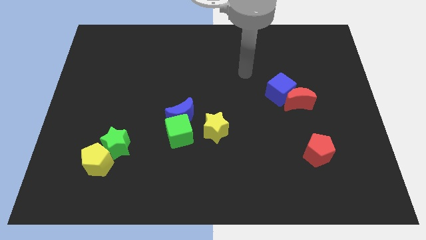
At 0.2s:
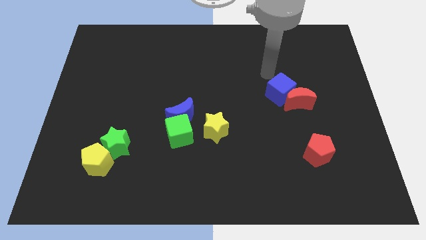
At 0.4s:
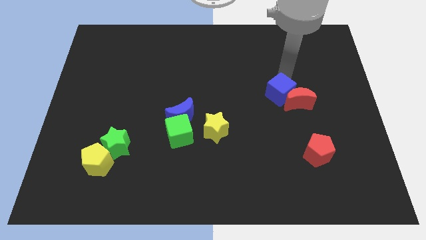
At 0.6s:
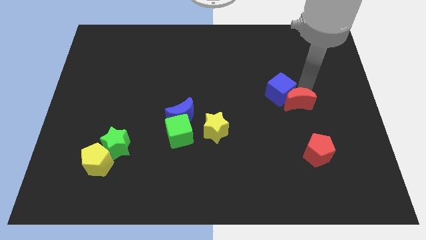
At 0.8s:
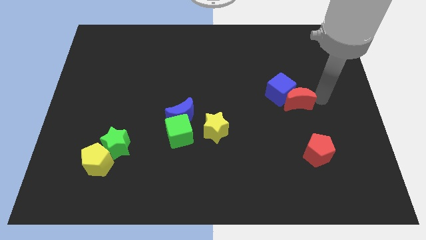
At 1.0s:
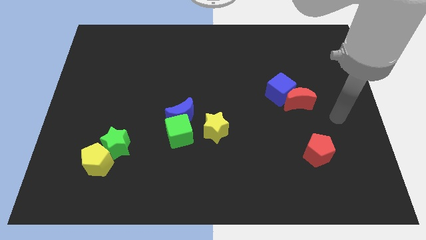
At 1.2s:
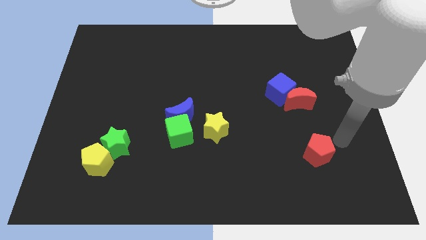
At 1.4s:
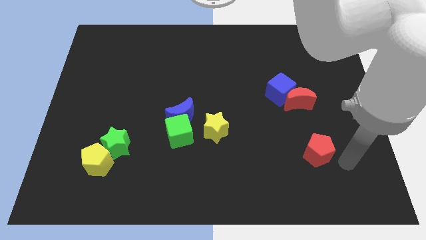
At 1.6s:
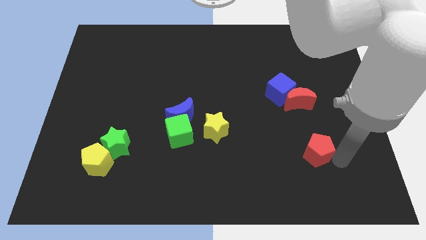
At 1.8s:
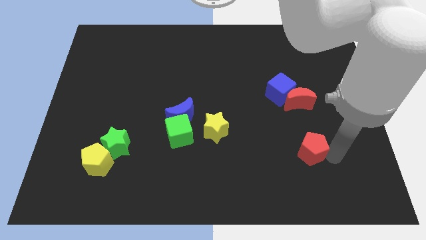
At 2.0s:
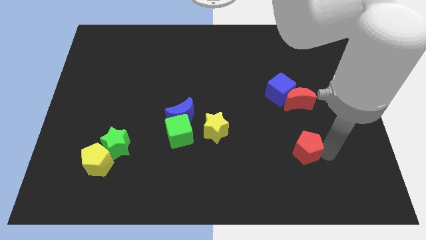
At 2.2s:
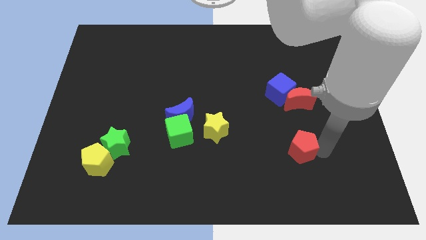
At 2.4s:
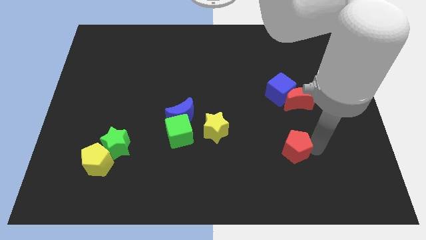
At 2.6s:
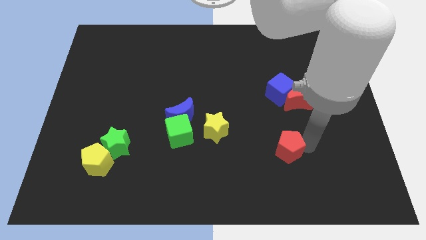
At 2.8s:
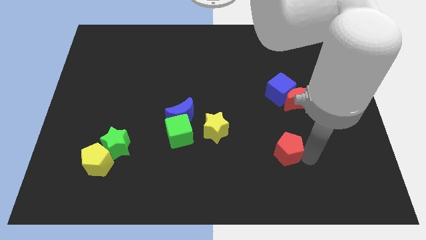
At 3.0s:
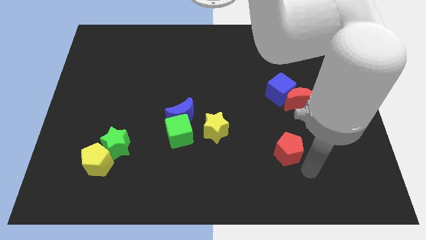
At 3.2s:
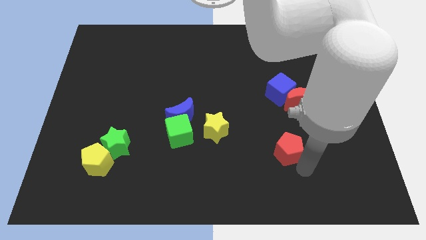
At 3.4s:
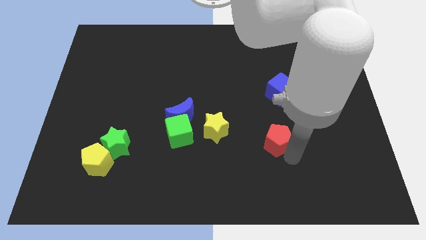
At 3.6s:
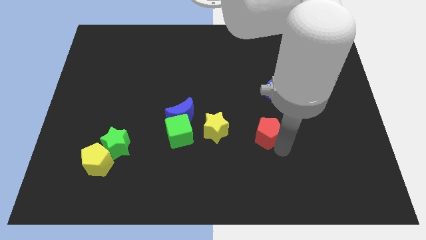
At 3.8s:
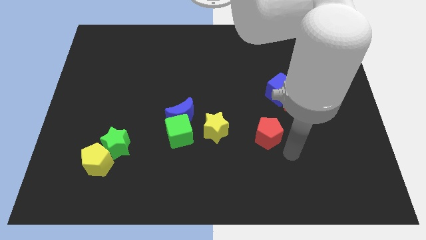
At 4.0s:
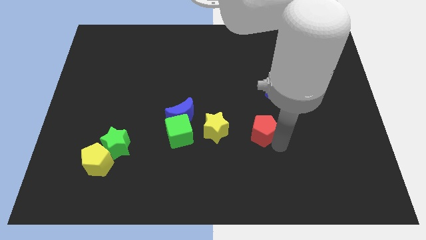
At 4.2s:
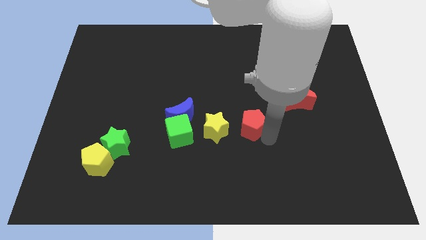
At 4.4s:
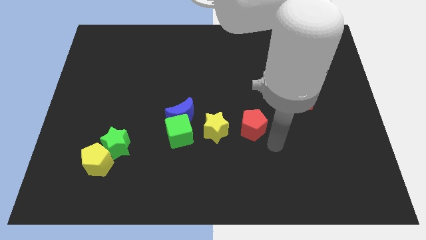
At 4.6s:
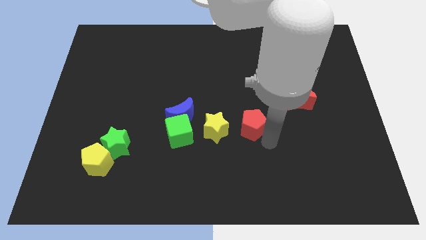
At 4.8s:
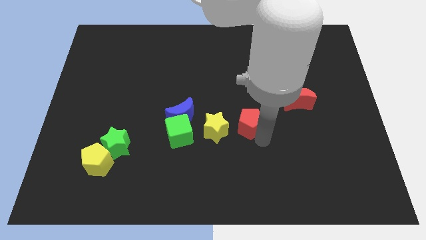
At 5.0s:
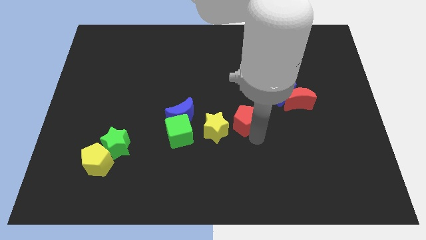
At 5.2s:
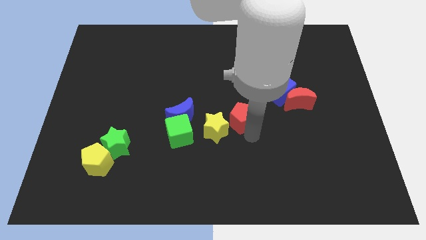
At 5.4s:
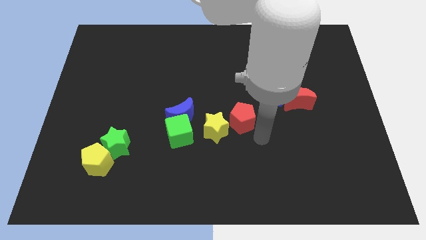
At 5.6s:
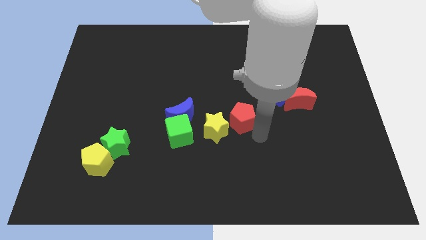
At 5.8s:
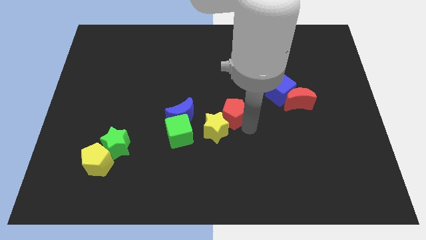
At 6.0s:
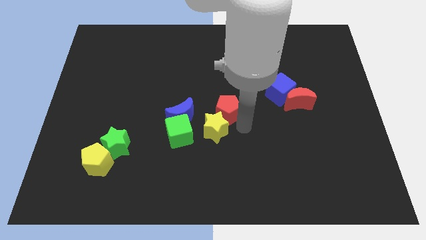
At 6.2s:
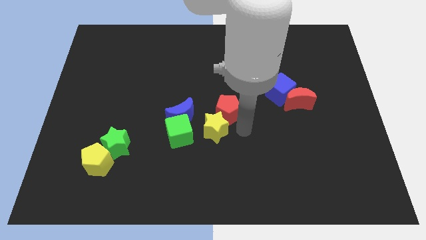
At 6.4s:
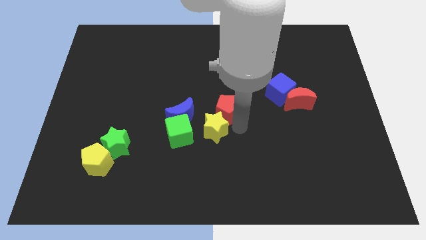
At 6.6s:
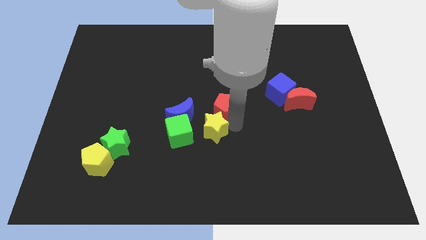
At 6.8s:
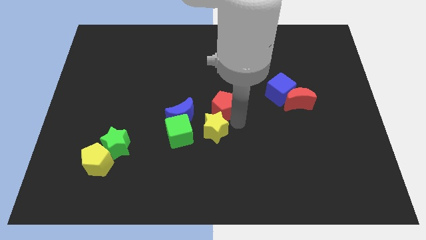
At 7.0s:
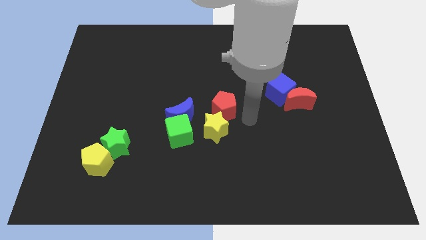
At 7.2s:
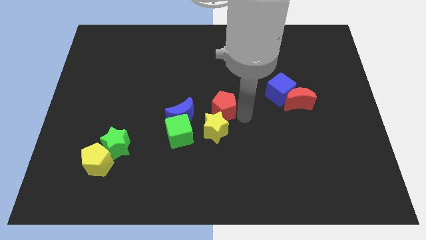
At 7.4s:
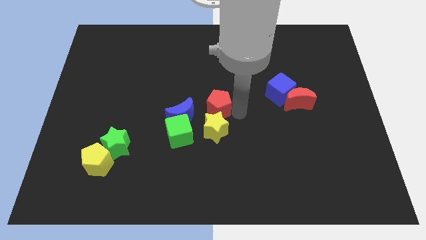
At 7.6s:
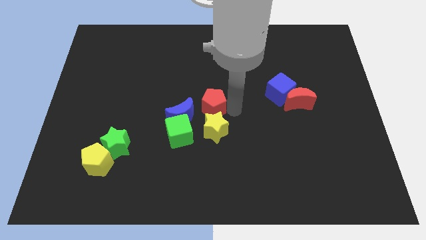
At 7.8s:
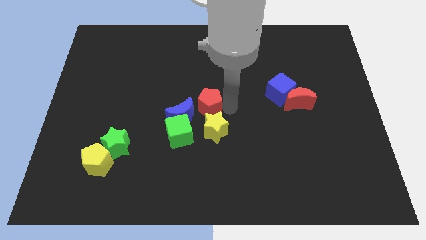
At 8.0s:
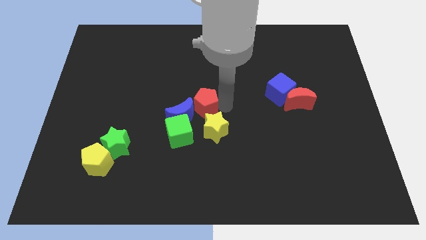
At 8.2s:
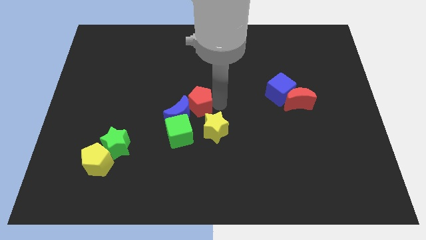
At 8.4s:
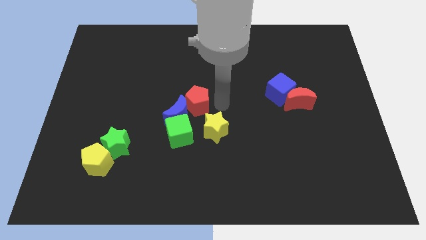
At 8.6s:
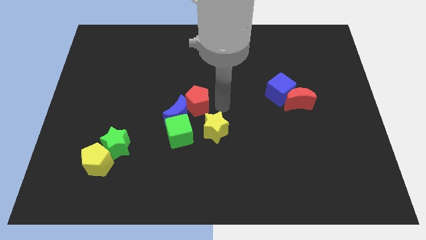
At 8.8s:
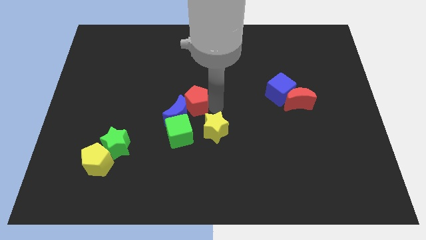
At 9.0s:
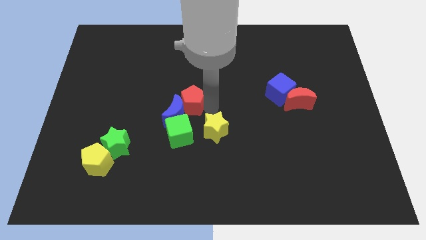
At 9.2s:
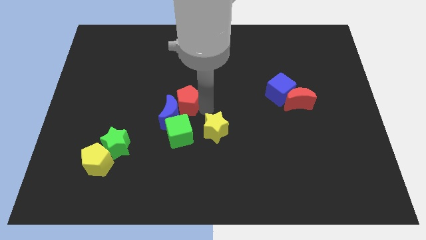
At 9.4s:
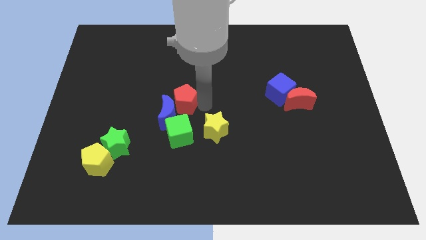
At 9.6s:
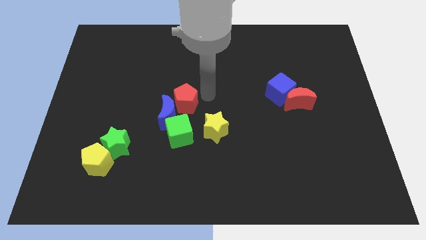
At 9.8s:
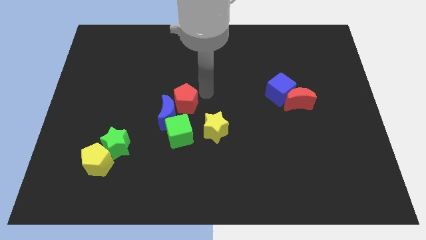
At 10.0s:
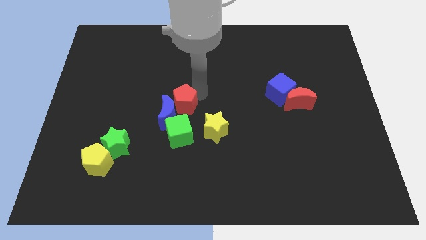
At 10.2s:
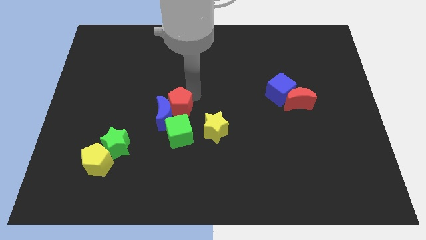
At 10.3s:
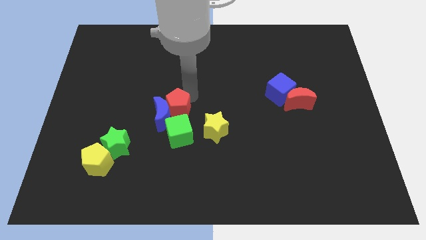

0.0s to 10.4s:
put the red pentagon to the top left of the green cube

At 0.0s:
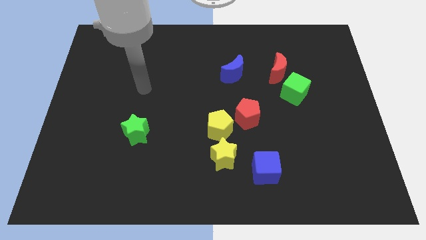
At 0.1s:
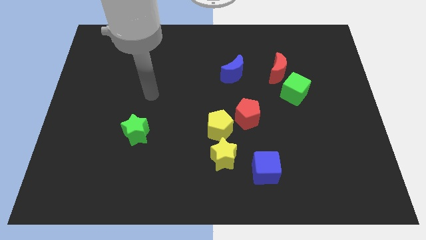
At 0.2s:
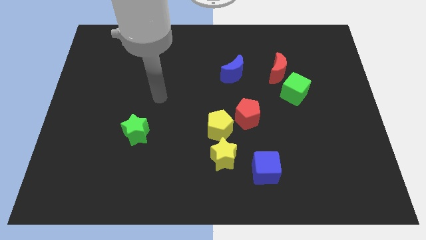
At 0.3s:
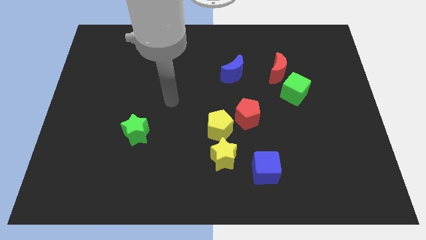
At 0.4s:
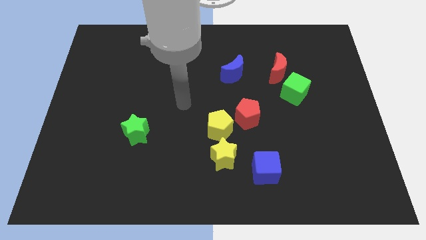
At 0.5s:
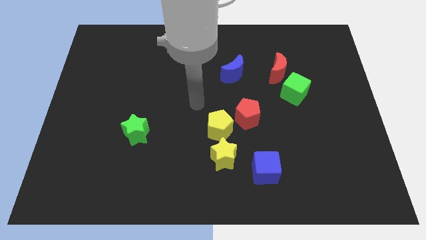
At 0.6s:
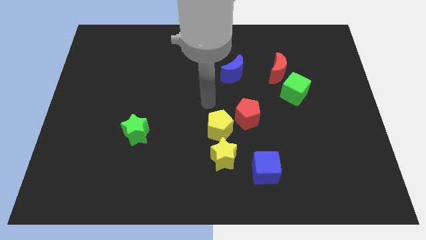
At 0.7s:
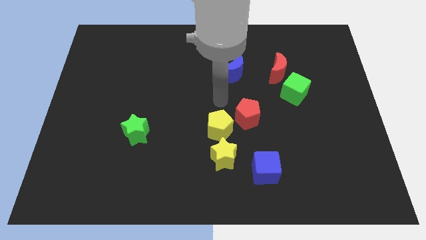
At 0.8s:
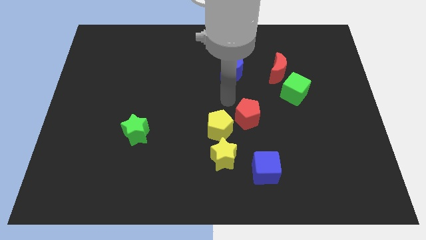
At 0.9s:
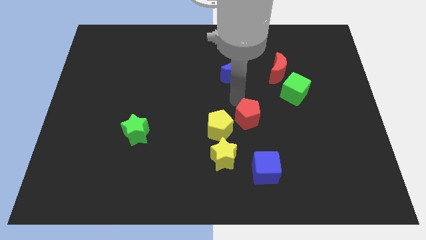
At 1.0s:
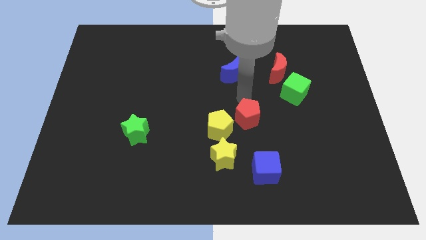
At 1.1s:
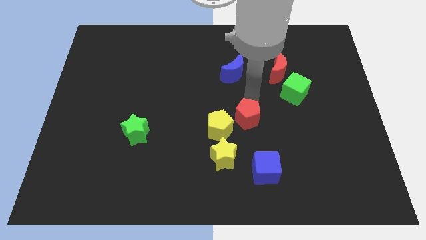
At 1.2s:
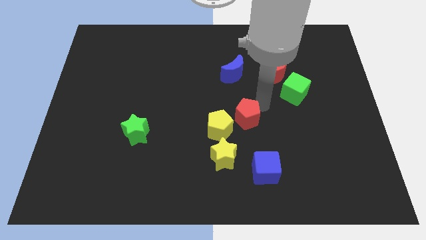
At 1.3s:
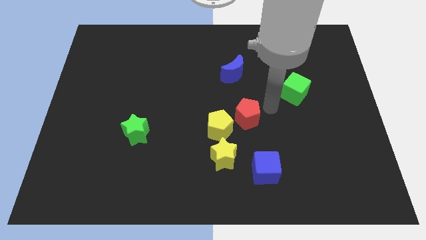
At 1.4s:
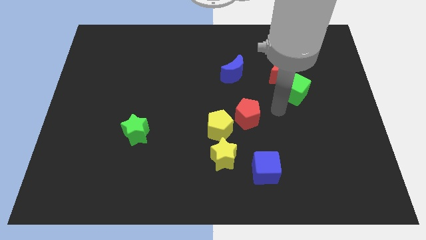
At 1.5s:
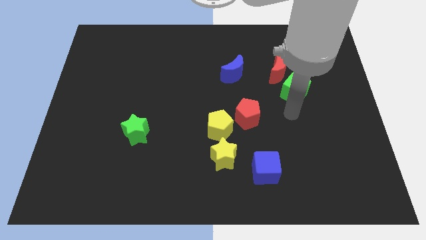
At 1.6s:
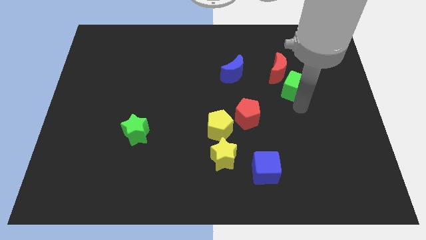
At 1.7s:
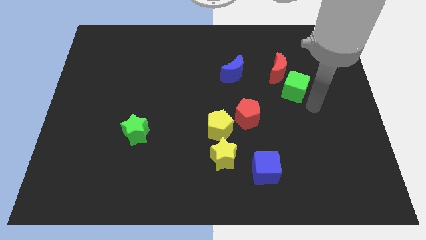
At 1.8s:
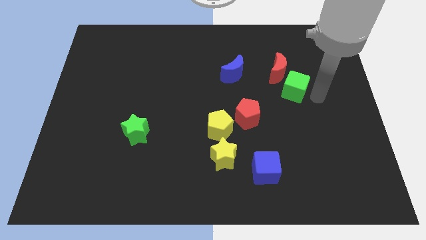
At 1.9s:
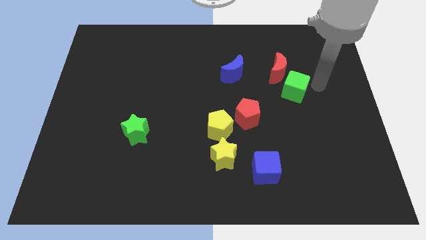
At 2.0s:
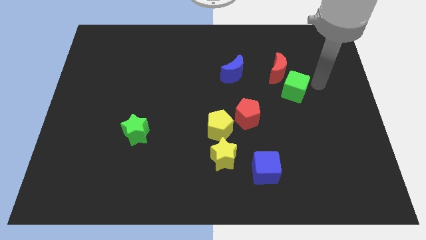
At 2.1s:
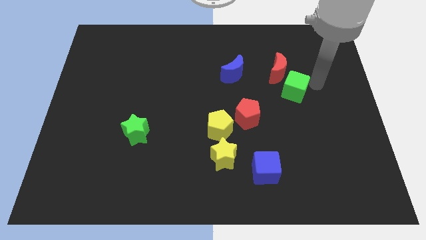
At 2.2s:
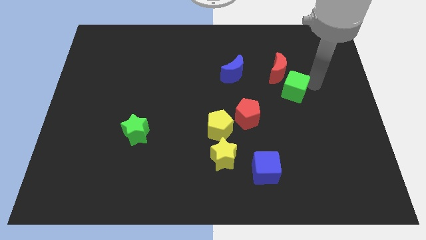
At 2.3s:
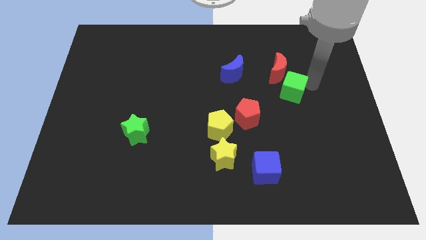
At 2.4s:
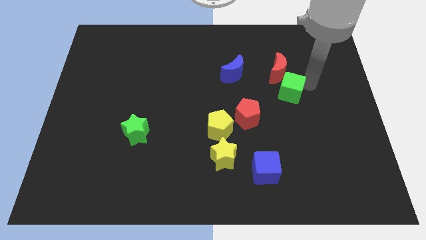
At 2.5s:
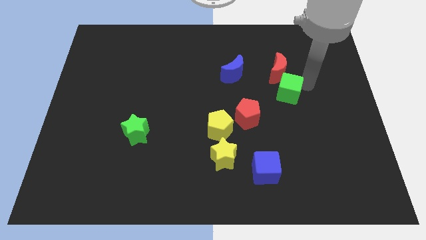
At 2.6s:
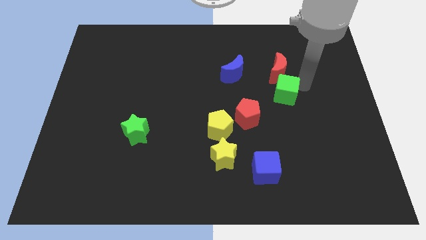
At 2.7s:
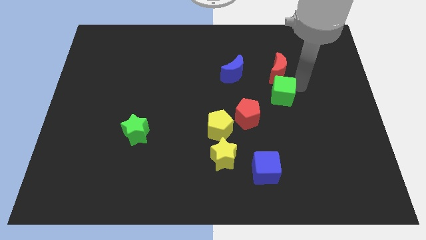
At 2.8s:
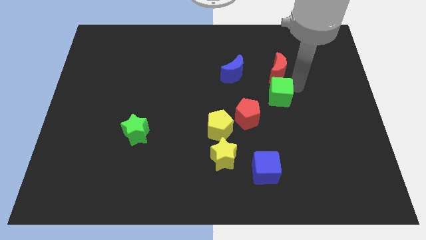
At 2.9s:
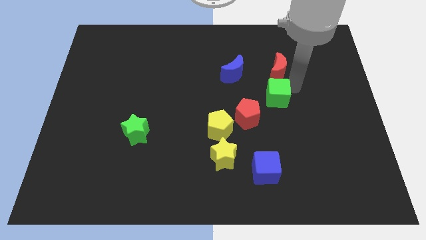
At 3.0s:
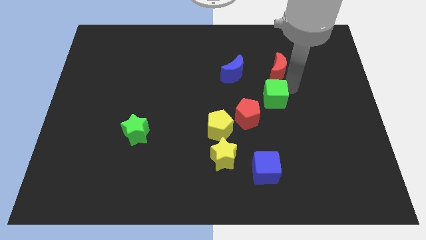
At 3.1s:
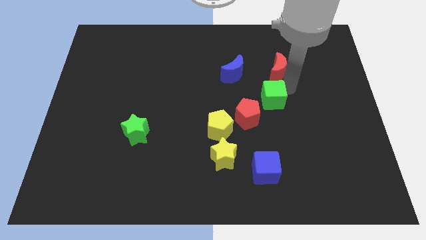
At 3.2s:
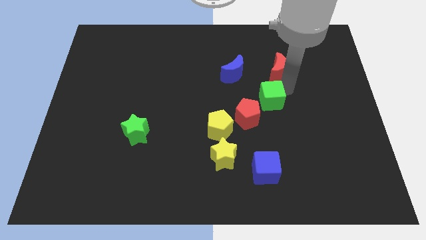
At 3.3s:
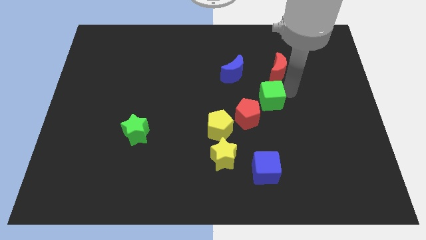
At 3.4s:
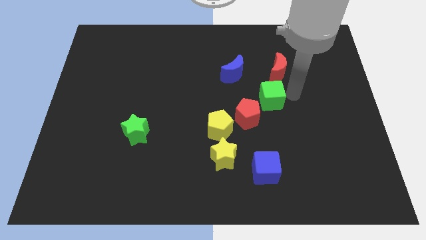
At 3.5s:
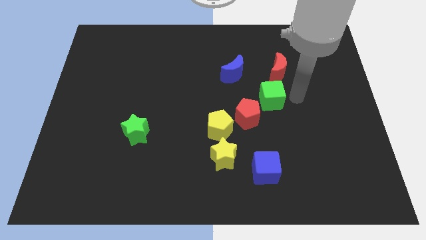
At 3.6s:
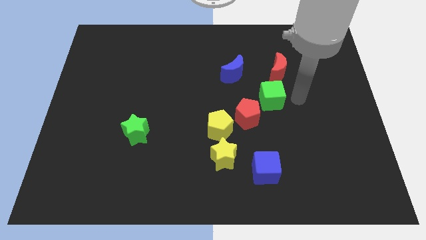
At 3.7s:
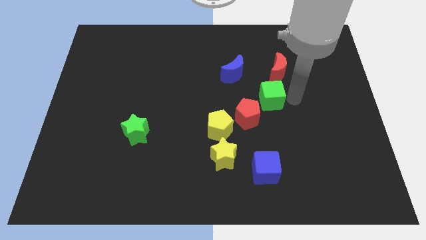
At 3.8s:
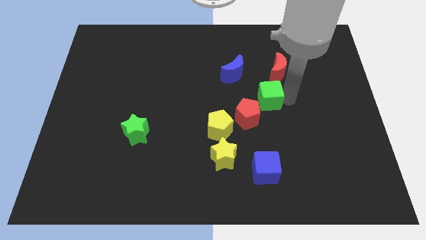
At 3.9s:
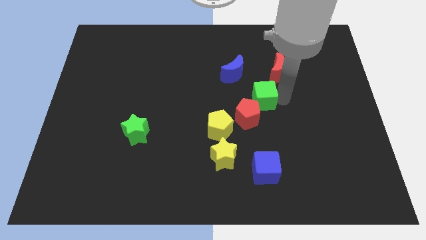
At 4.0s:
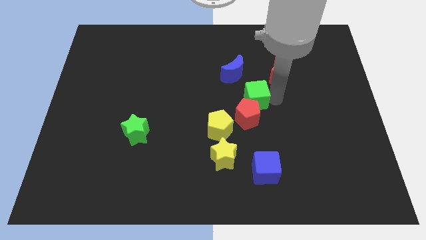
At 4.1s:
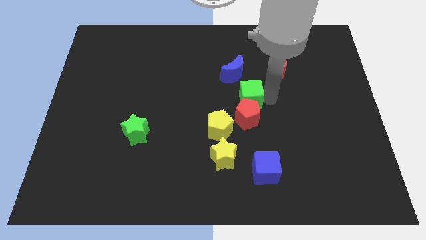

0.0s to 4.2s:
push the green cube diagonally up and to the left of the red pentagon
